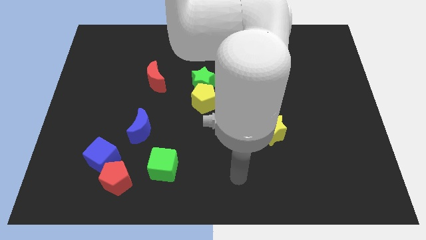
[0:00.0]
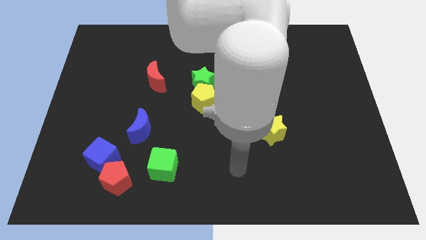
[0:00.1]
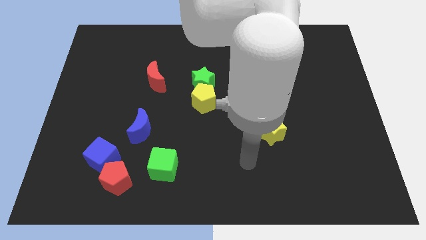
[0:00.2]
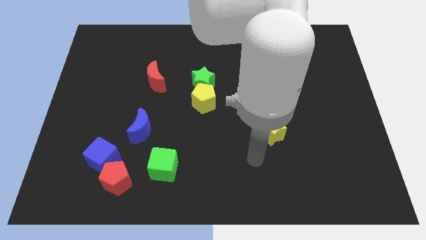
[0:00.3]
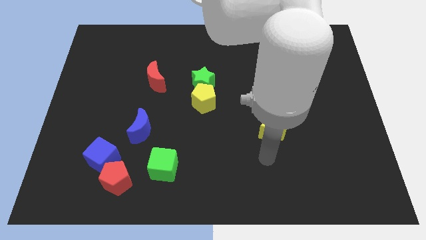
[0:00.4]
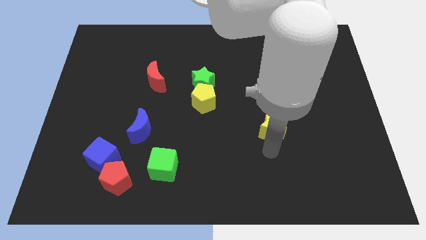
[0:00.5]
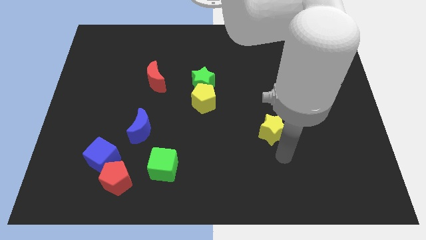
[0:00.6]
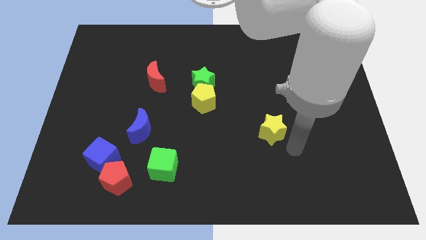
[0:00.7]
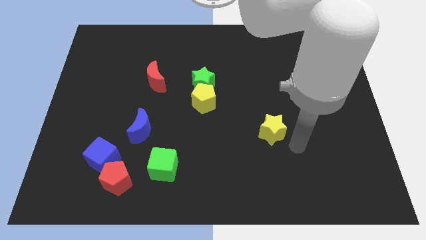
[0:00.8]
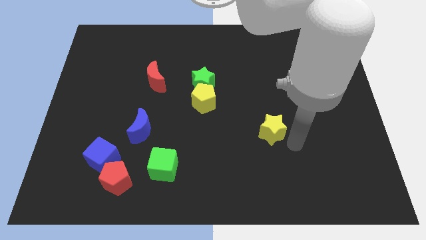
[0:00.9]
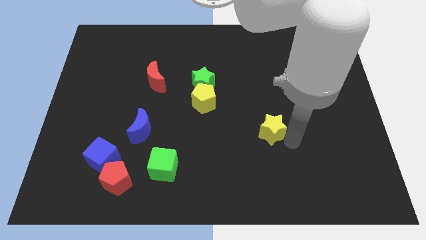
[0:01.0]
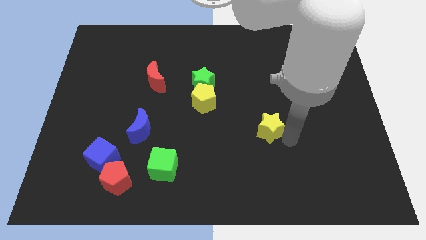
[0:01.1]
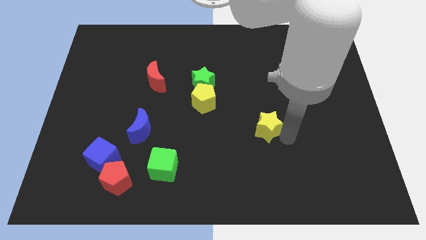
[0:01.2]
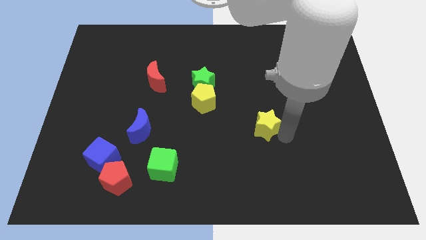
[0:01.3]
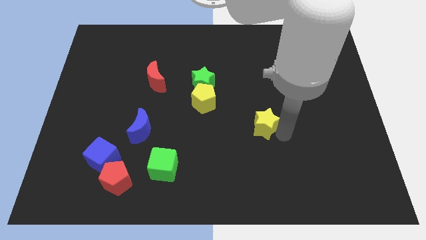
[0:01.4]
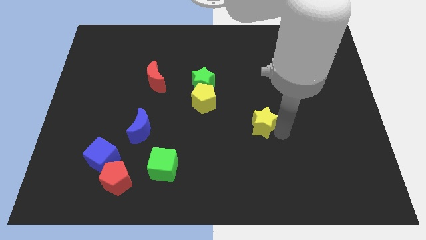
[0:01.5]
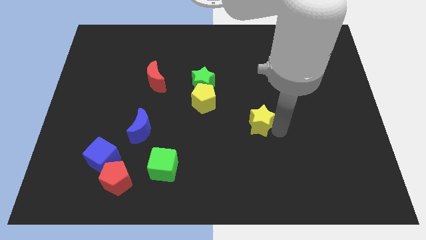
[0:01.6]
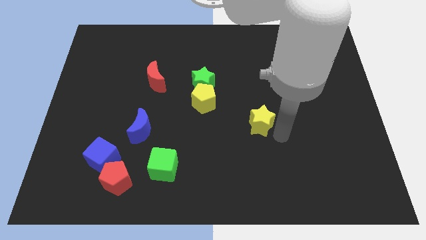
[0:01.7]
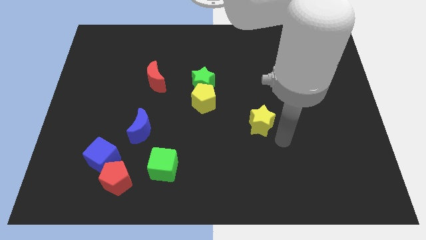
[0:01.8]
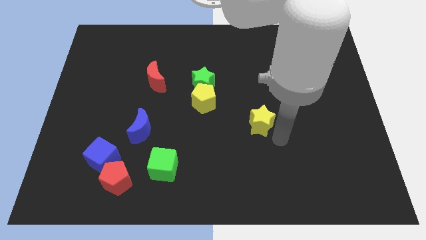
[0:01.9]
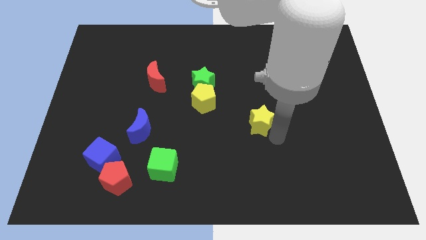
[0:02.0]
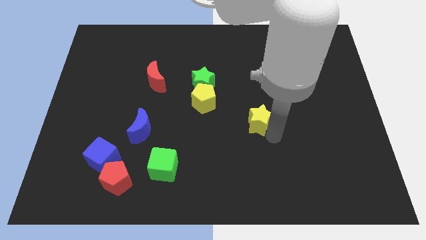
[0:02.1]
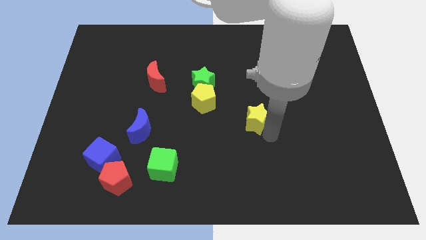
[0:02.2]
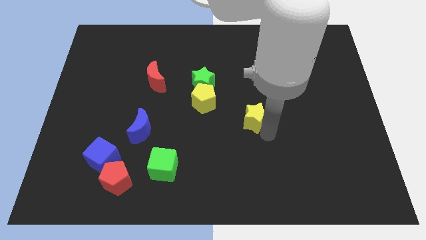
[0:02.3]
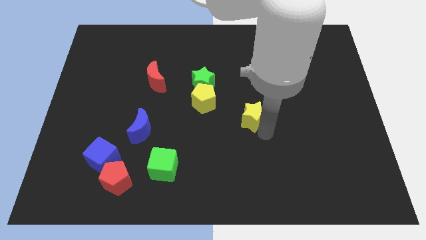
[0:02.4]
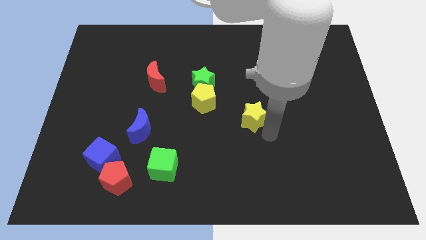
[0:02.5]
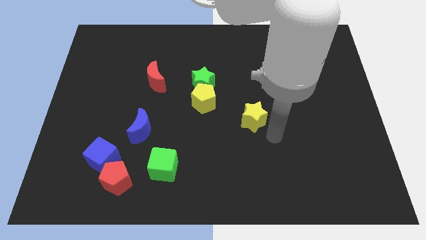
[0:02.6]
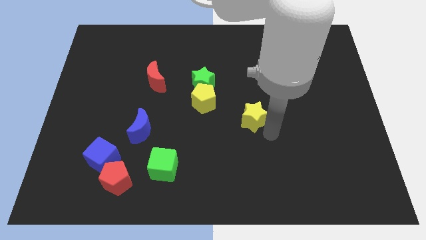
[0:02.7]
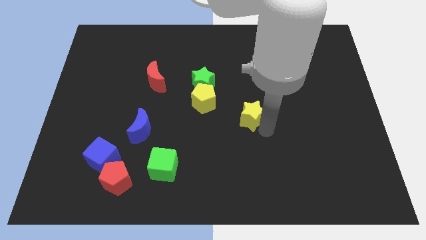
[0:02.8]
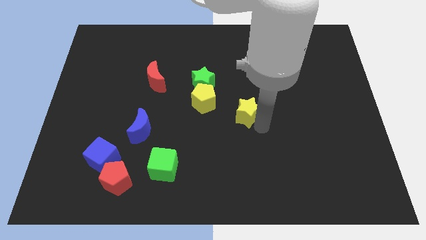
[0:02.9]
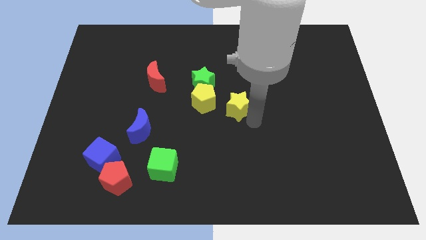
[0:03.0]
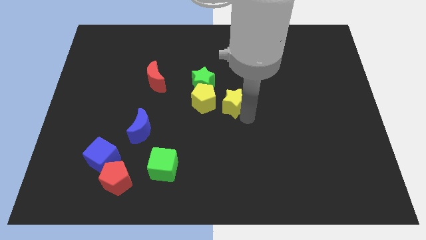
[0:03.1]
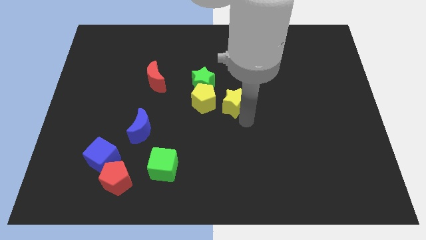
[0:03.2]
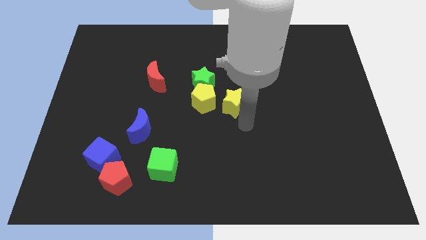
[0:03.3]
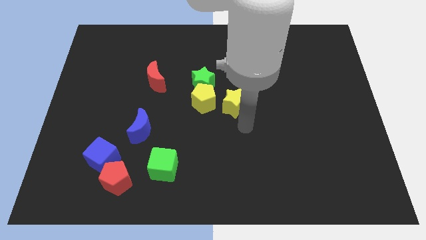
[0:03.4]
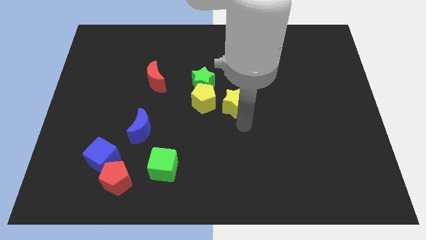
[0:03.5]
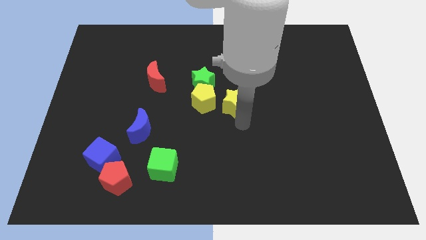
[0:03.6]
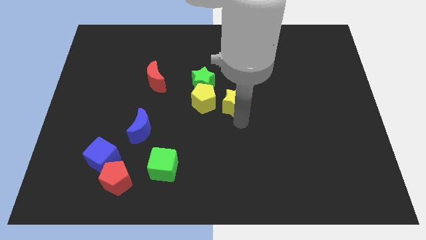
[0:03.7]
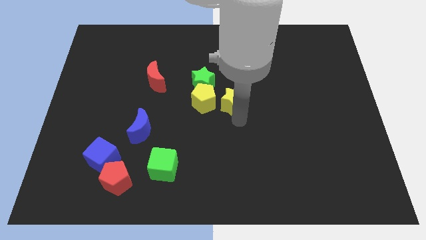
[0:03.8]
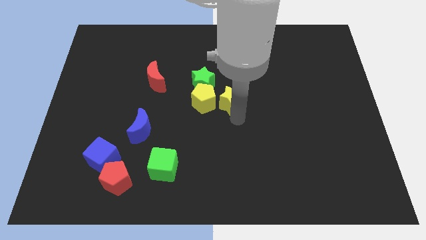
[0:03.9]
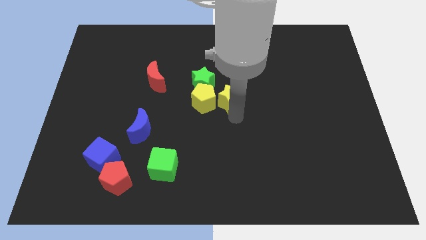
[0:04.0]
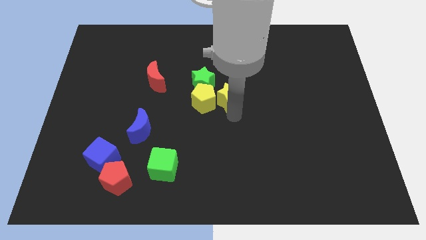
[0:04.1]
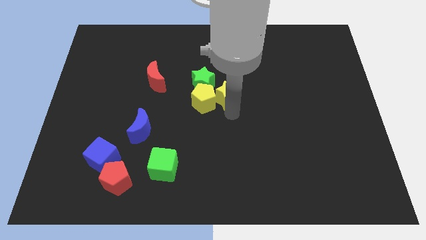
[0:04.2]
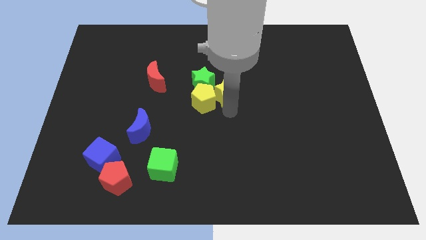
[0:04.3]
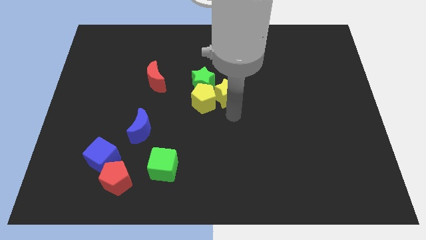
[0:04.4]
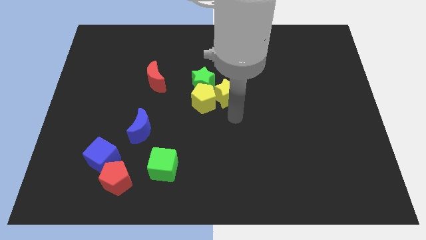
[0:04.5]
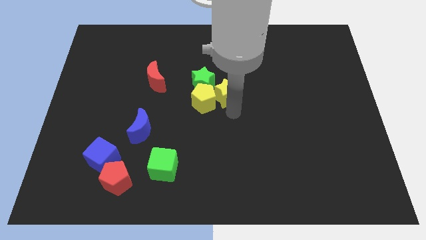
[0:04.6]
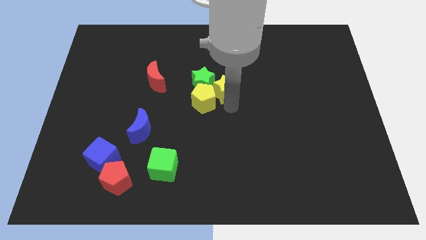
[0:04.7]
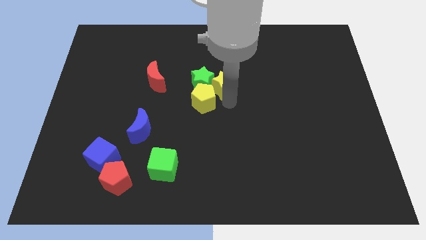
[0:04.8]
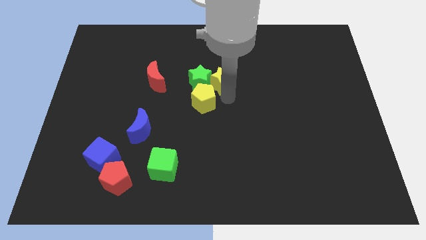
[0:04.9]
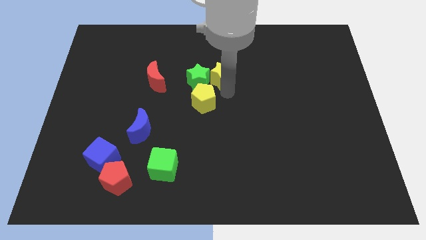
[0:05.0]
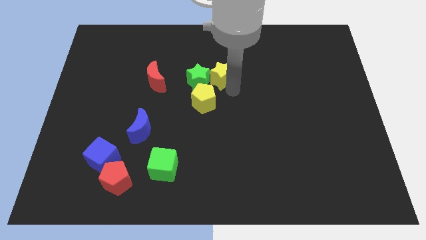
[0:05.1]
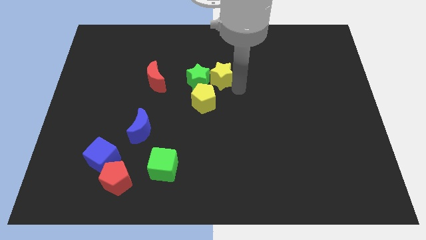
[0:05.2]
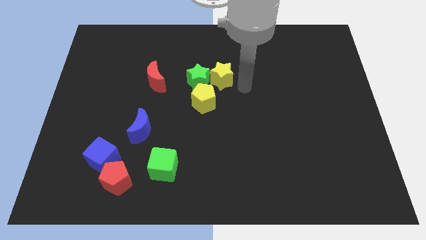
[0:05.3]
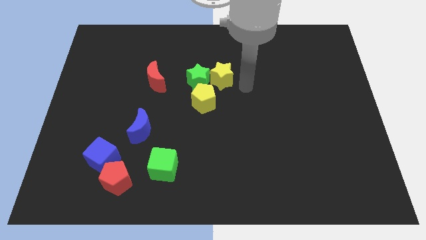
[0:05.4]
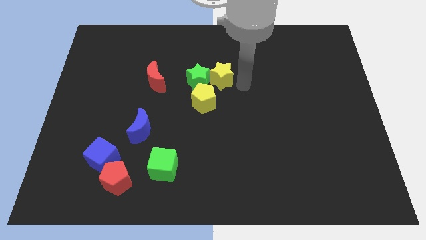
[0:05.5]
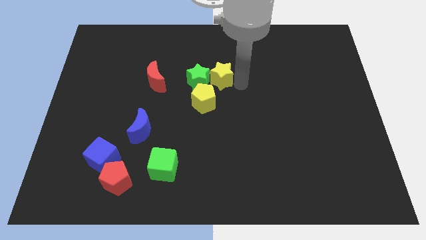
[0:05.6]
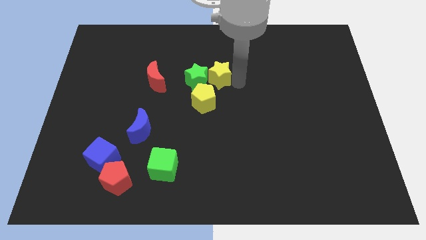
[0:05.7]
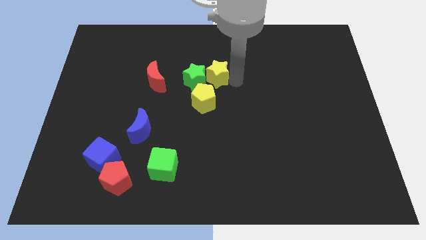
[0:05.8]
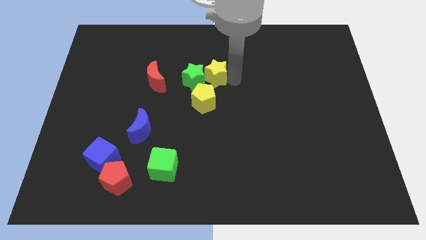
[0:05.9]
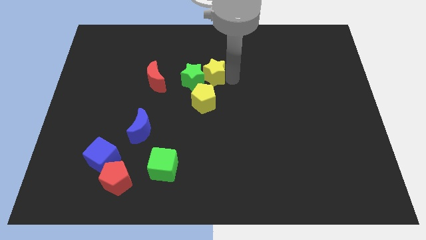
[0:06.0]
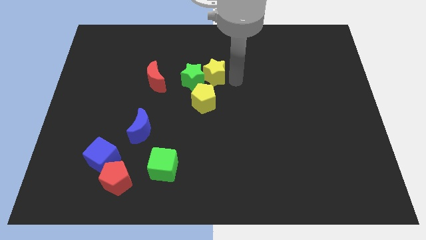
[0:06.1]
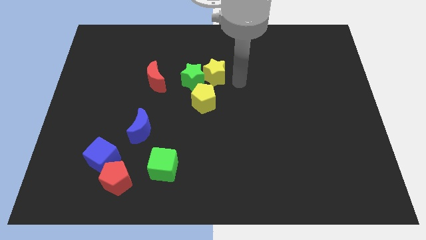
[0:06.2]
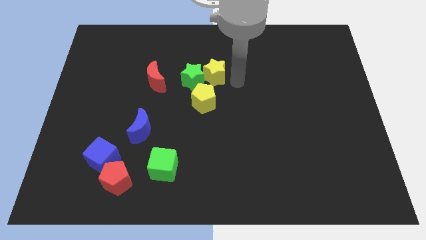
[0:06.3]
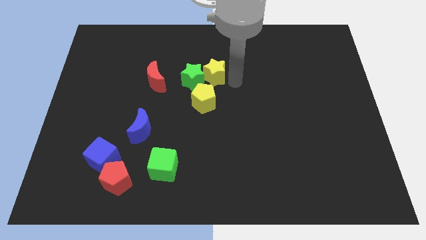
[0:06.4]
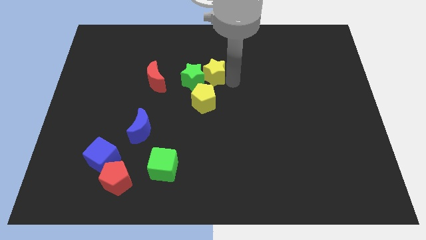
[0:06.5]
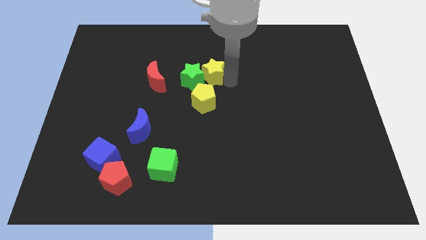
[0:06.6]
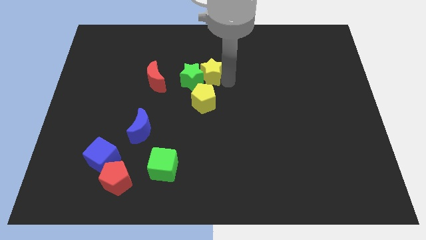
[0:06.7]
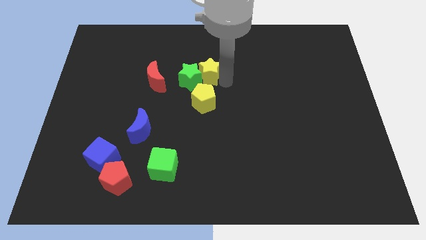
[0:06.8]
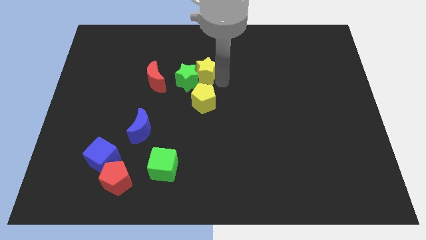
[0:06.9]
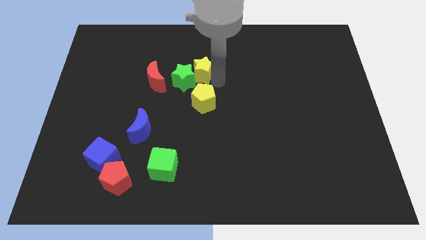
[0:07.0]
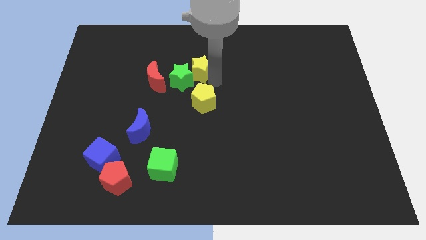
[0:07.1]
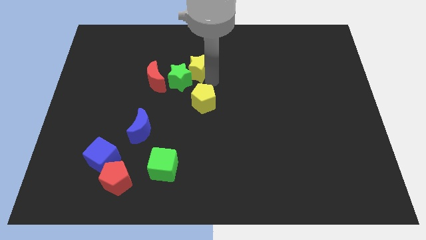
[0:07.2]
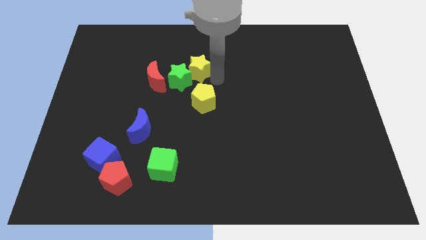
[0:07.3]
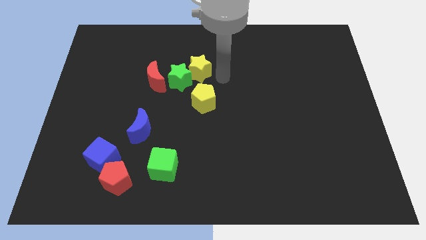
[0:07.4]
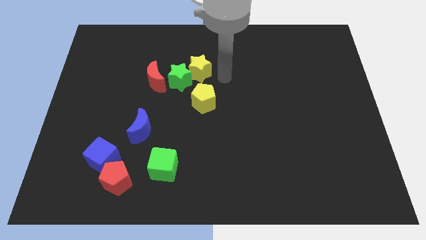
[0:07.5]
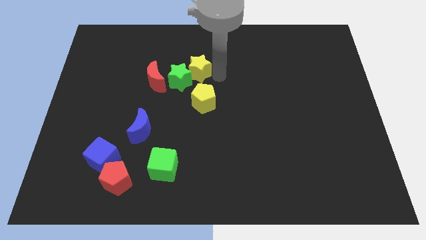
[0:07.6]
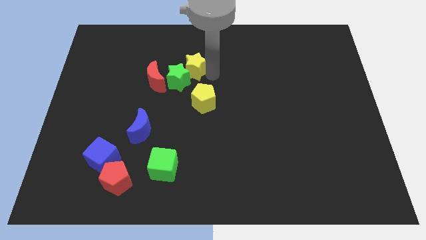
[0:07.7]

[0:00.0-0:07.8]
put the yellow star diagonally up and to the right of the red moon
